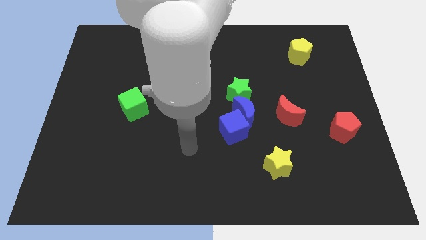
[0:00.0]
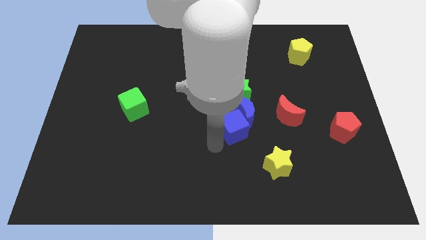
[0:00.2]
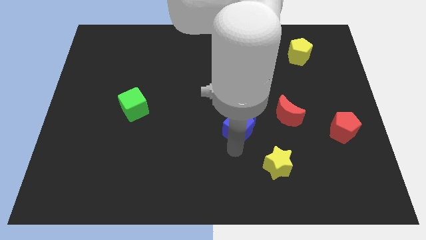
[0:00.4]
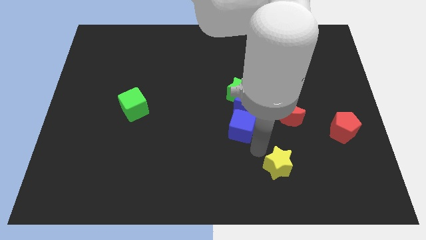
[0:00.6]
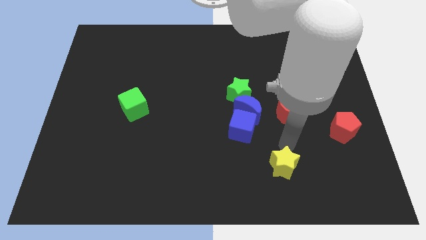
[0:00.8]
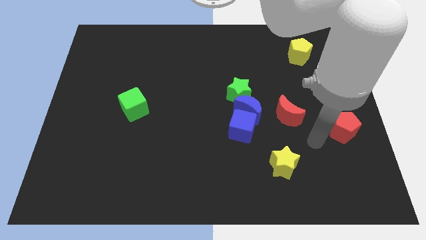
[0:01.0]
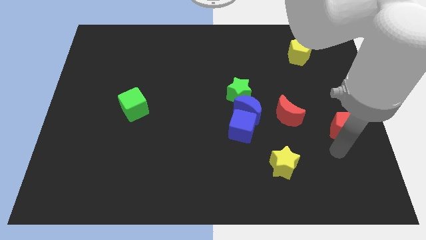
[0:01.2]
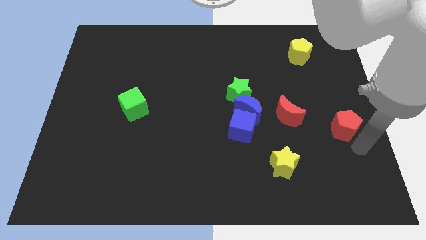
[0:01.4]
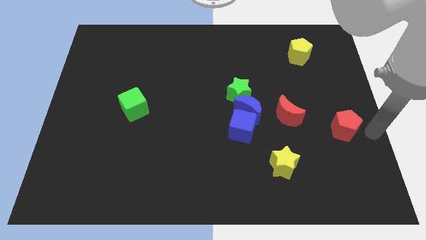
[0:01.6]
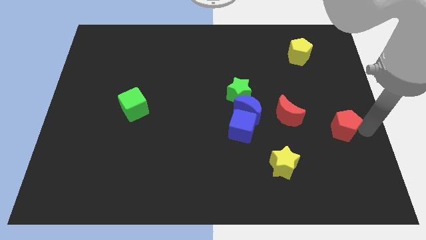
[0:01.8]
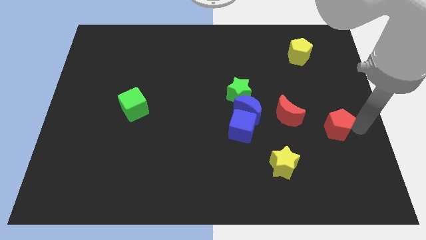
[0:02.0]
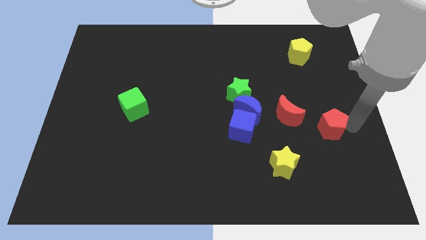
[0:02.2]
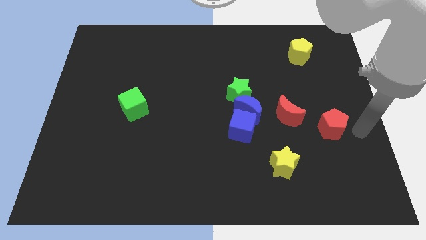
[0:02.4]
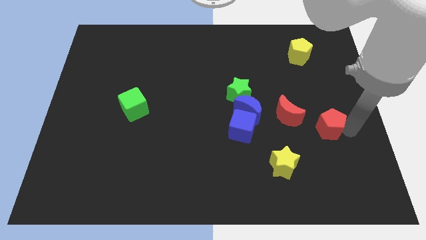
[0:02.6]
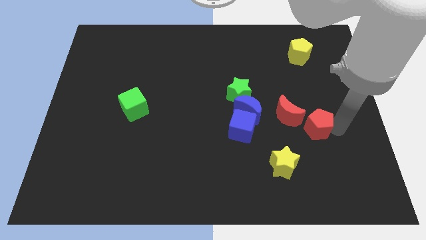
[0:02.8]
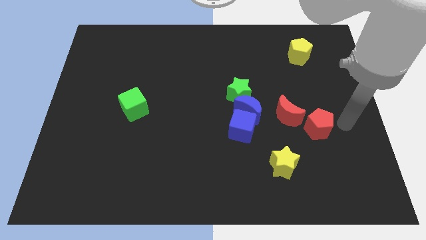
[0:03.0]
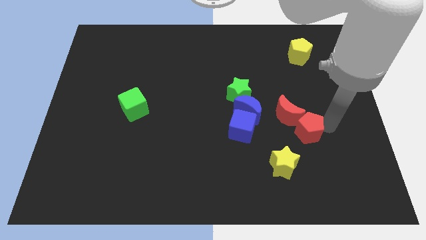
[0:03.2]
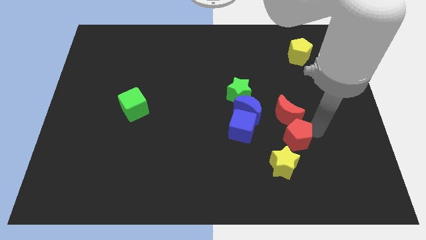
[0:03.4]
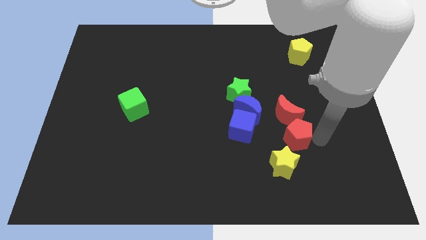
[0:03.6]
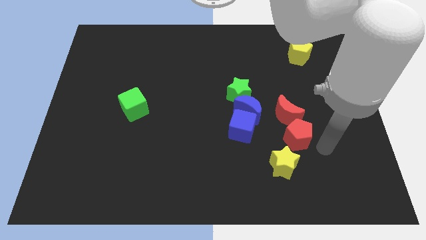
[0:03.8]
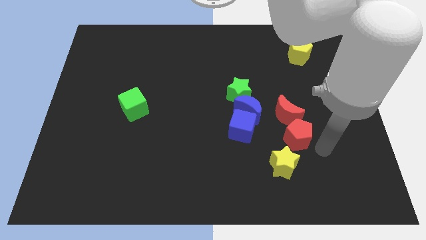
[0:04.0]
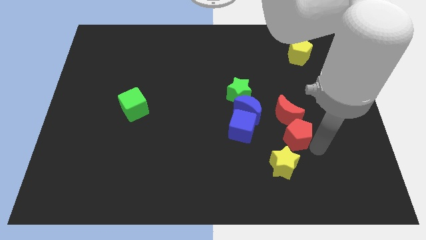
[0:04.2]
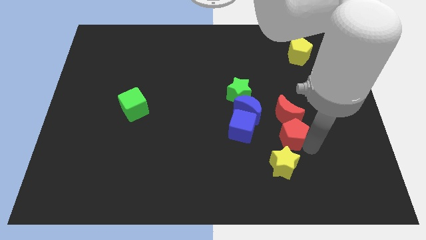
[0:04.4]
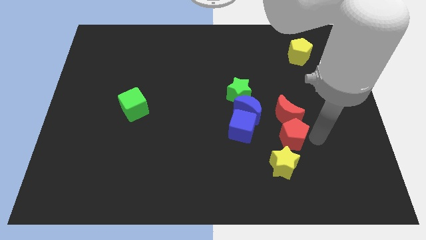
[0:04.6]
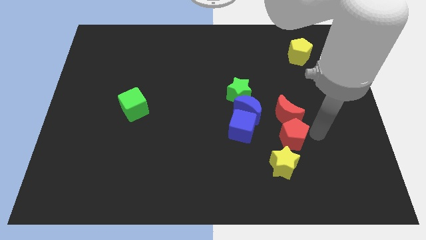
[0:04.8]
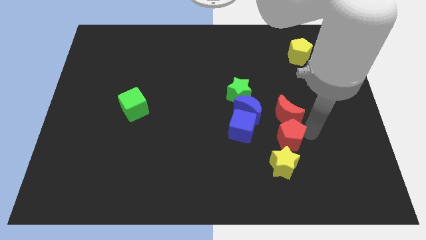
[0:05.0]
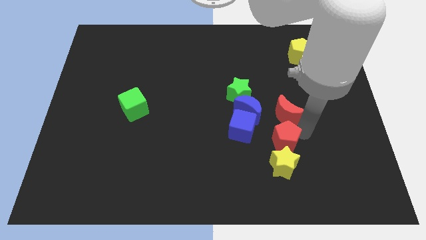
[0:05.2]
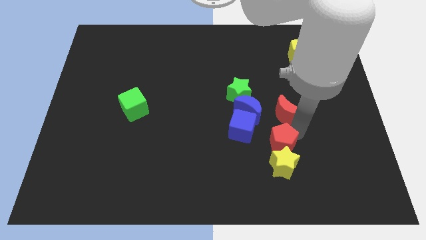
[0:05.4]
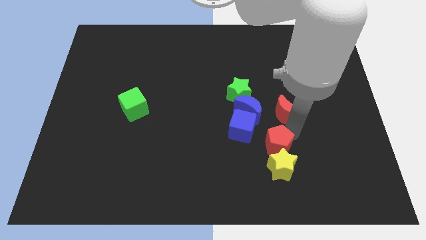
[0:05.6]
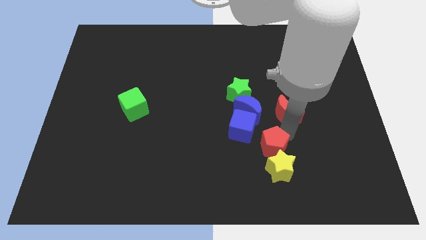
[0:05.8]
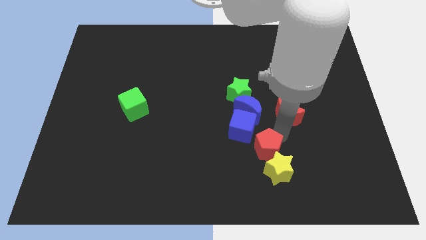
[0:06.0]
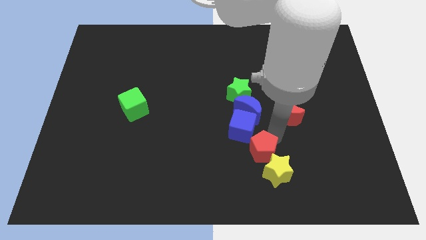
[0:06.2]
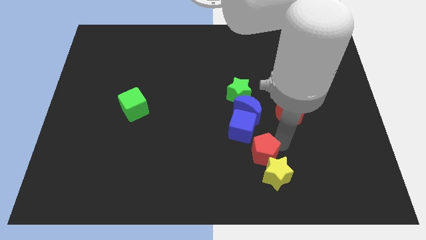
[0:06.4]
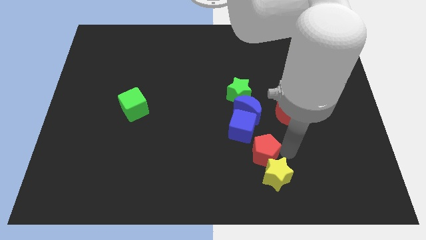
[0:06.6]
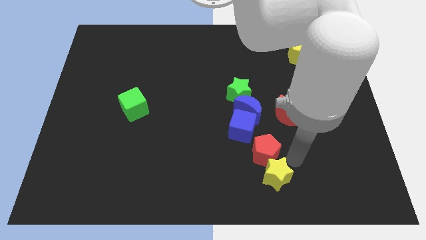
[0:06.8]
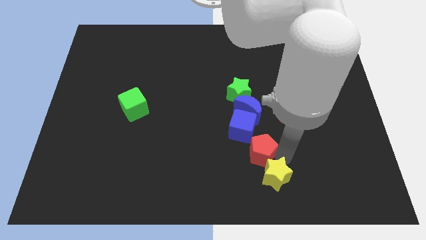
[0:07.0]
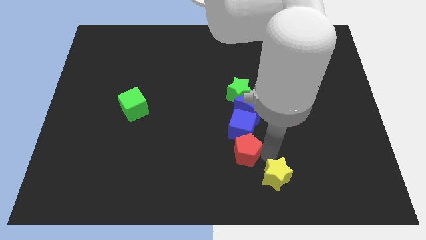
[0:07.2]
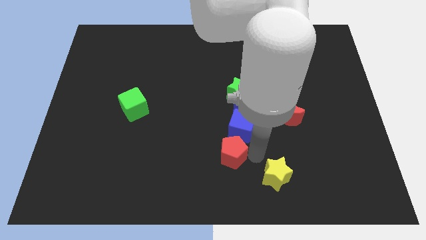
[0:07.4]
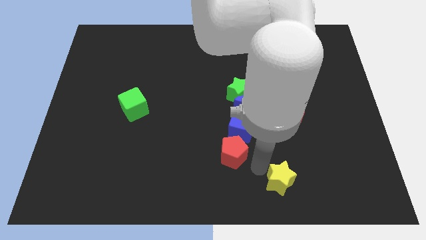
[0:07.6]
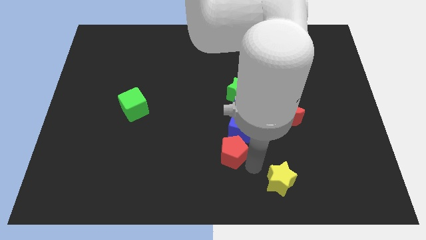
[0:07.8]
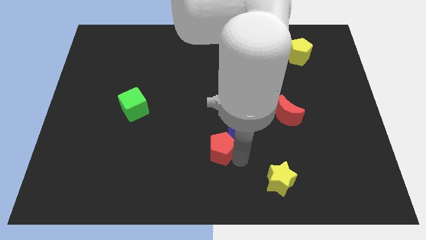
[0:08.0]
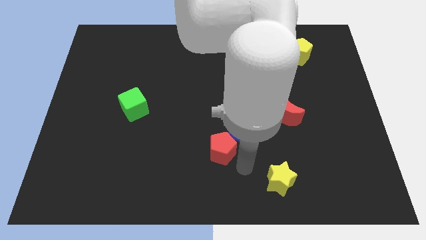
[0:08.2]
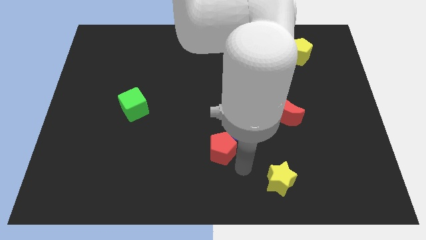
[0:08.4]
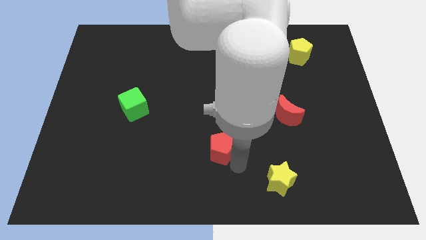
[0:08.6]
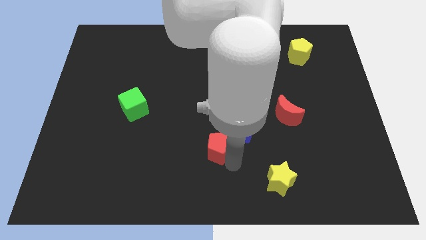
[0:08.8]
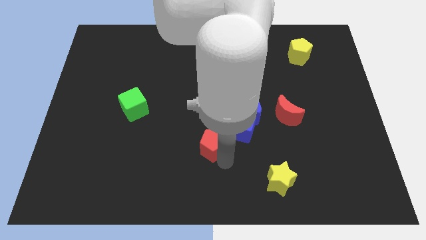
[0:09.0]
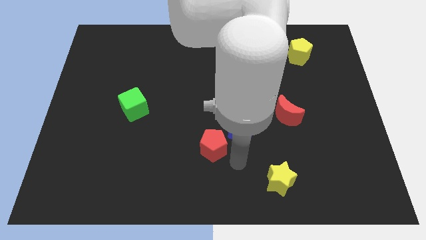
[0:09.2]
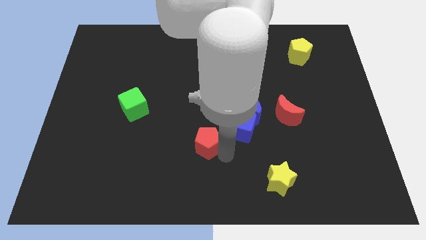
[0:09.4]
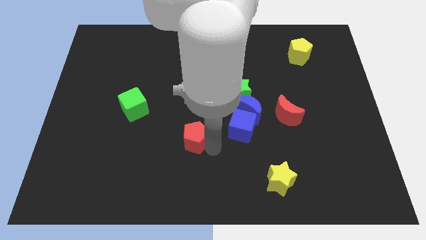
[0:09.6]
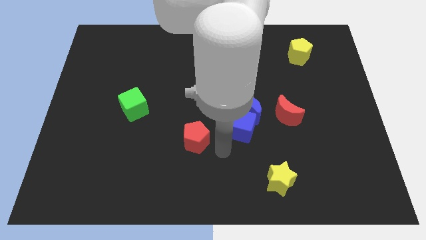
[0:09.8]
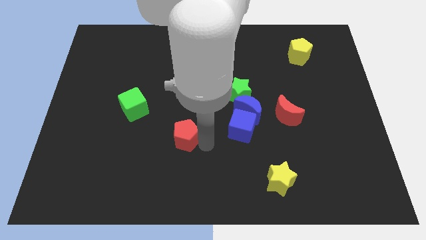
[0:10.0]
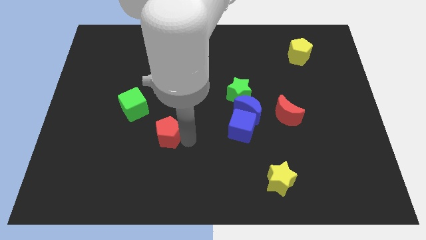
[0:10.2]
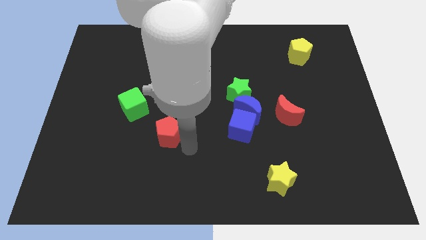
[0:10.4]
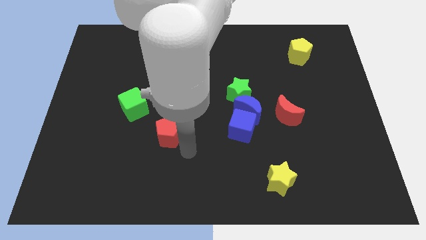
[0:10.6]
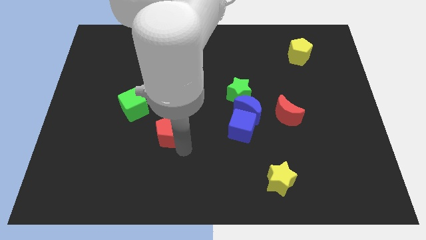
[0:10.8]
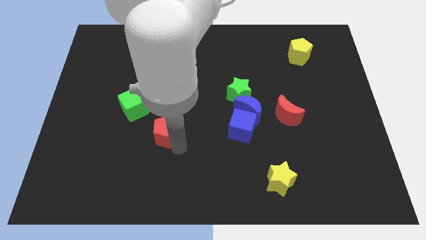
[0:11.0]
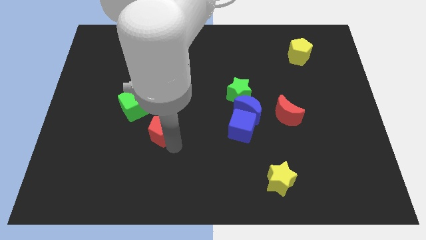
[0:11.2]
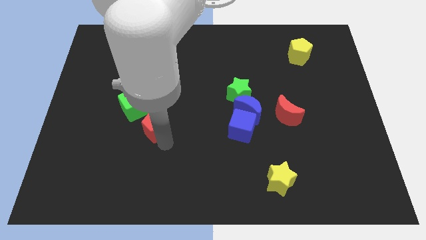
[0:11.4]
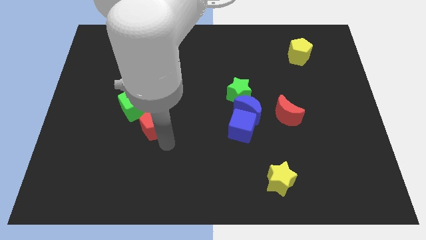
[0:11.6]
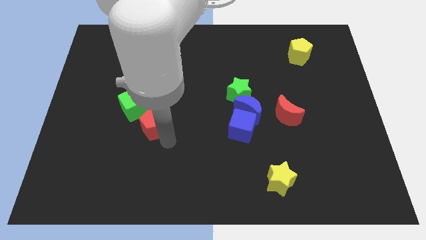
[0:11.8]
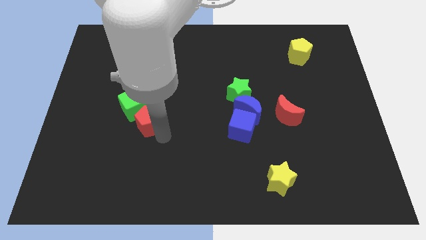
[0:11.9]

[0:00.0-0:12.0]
move the red pentagon close to the green cube

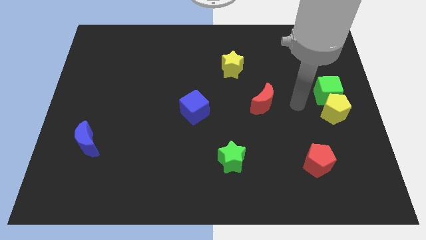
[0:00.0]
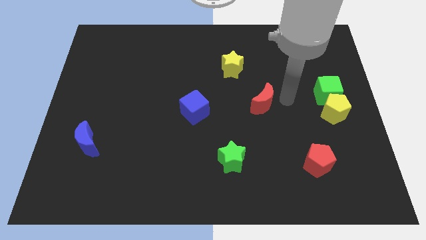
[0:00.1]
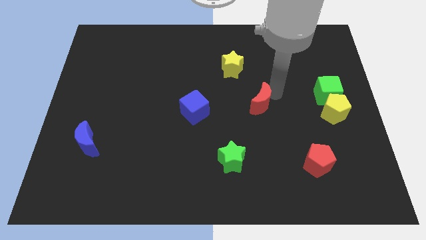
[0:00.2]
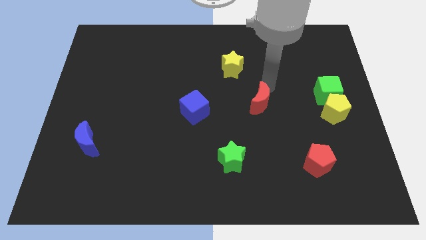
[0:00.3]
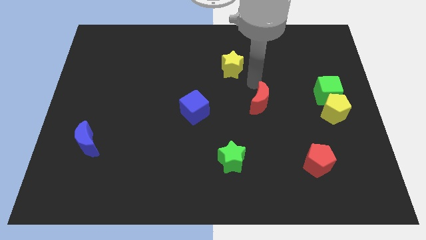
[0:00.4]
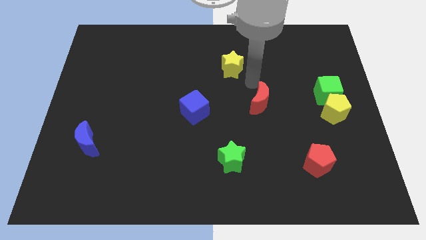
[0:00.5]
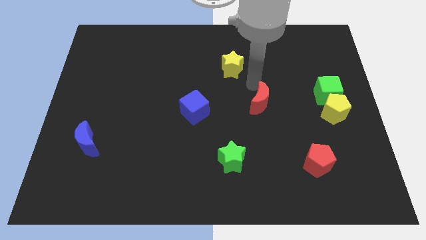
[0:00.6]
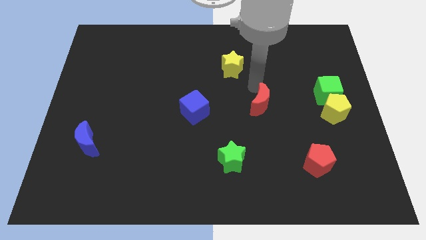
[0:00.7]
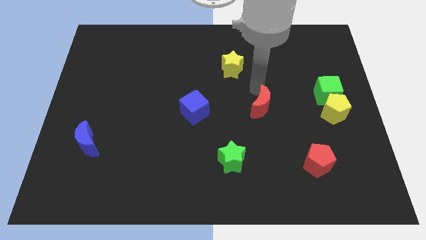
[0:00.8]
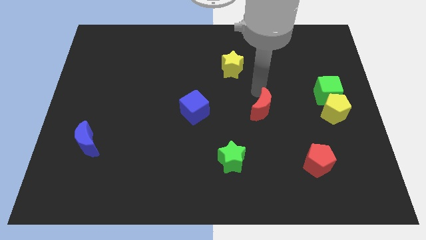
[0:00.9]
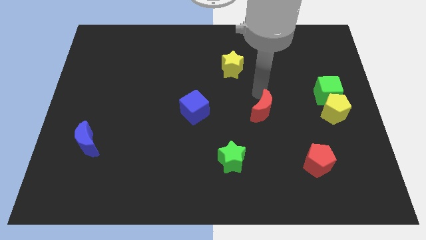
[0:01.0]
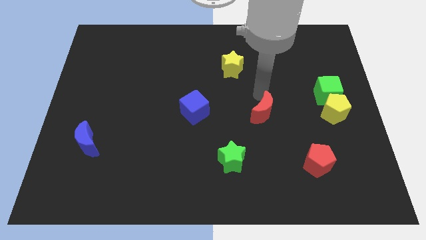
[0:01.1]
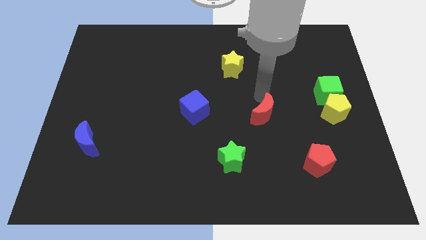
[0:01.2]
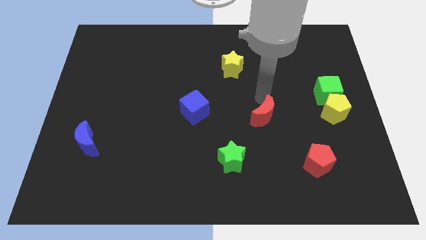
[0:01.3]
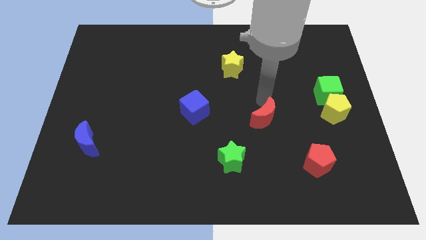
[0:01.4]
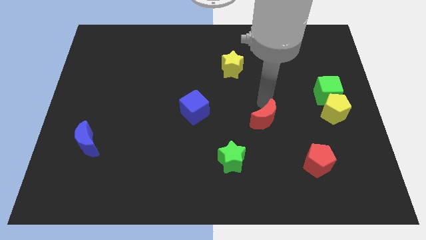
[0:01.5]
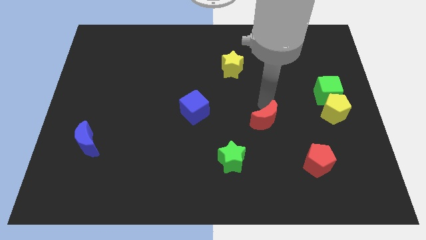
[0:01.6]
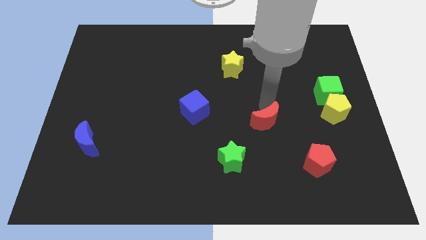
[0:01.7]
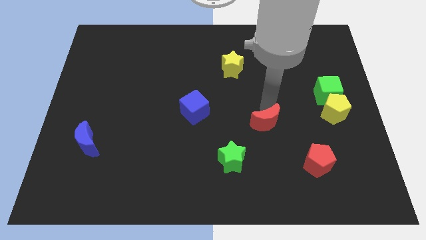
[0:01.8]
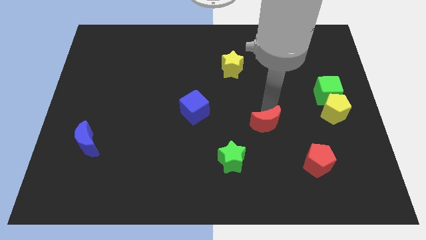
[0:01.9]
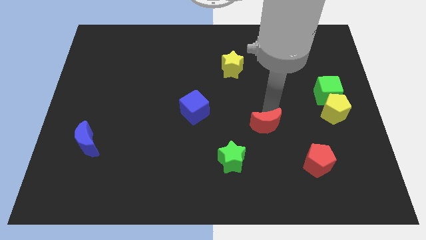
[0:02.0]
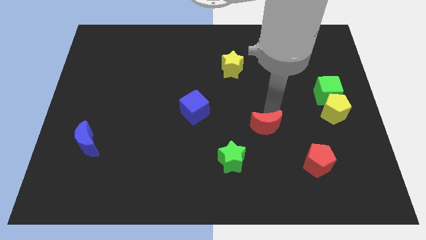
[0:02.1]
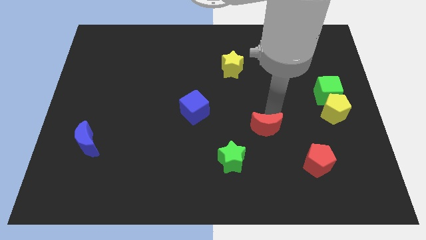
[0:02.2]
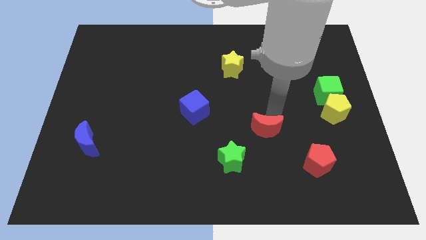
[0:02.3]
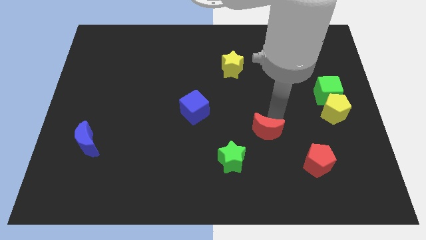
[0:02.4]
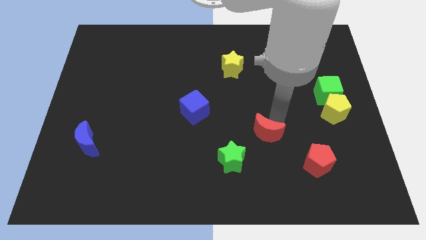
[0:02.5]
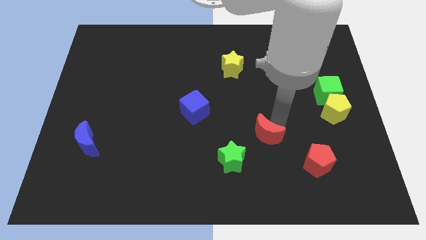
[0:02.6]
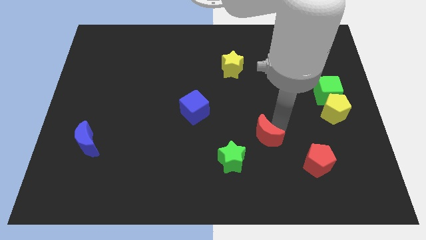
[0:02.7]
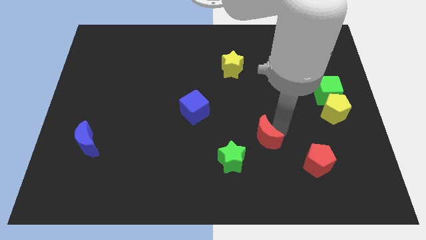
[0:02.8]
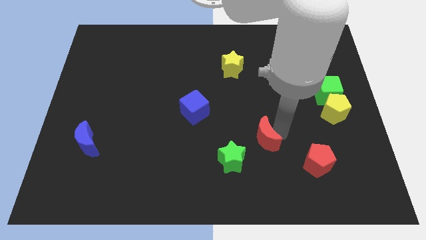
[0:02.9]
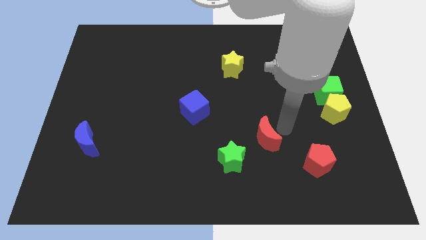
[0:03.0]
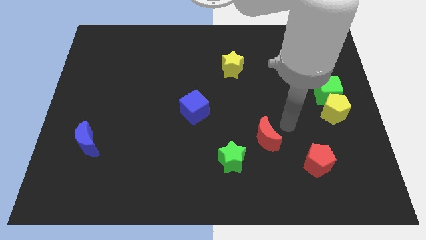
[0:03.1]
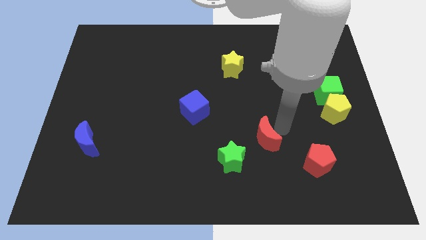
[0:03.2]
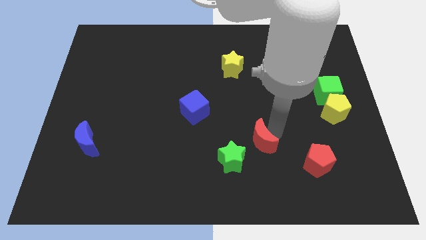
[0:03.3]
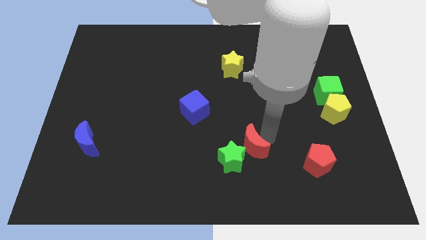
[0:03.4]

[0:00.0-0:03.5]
push the red moon close to the green star
